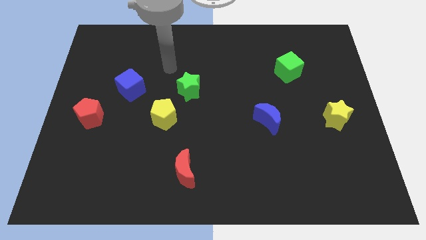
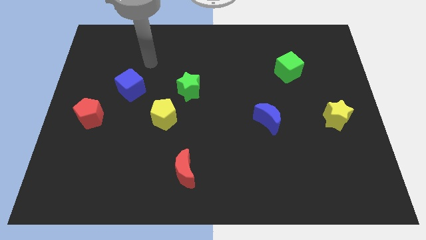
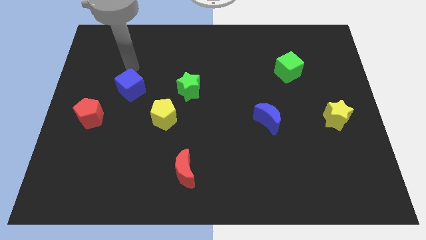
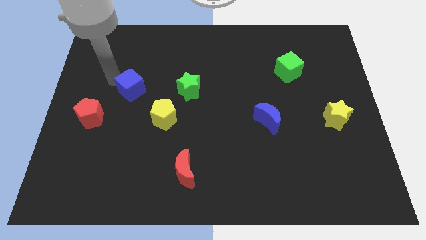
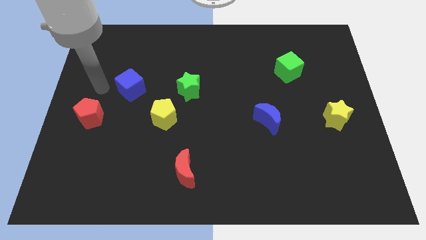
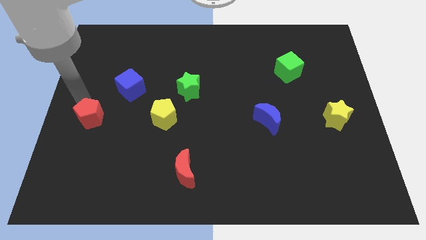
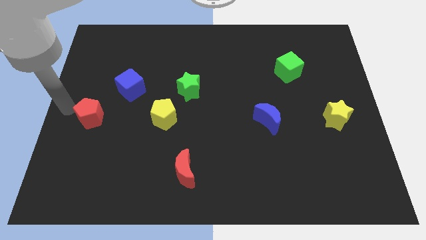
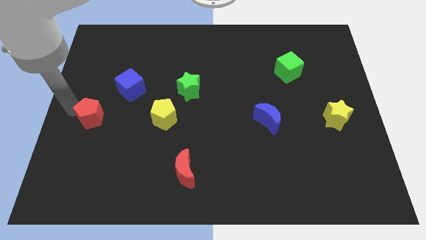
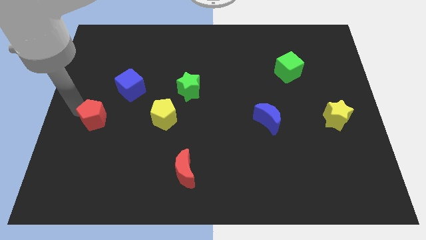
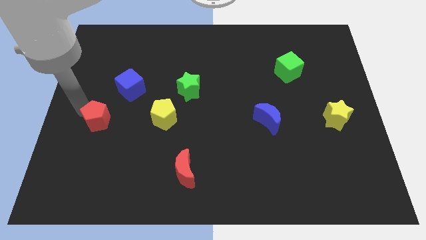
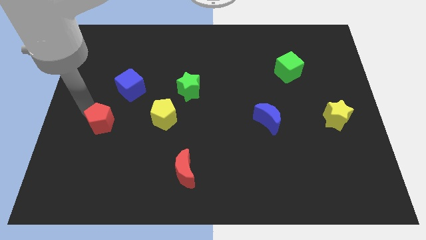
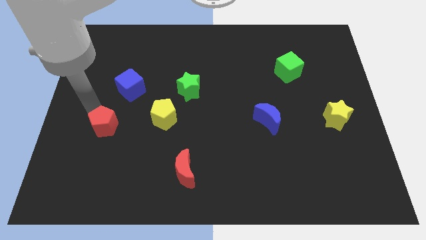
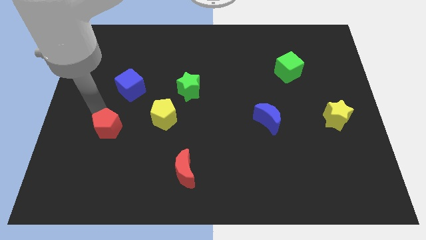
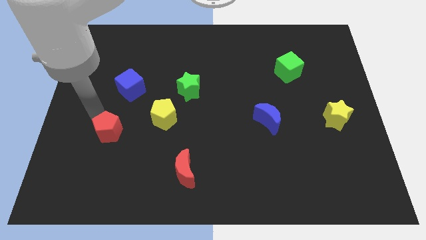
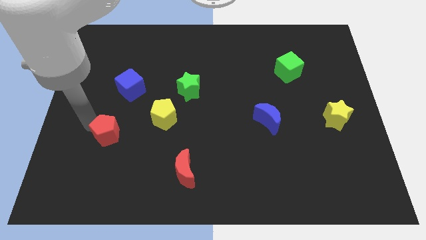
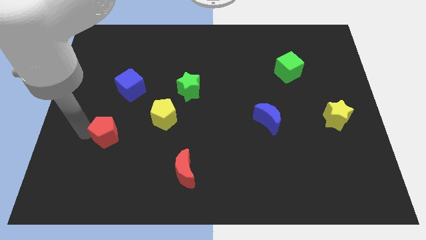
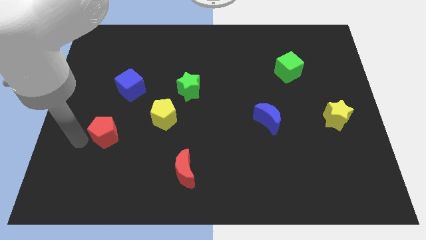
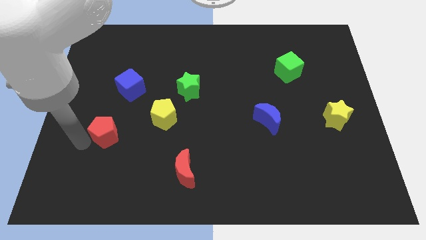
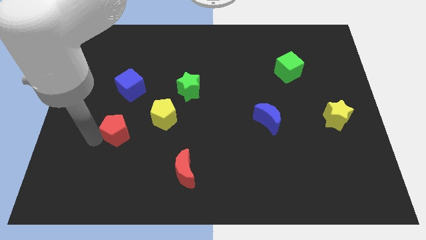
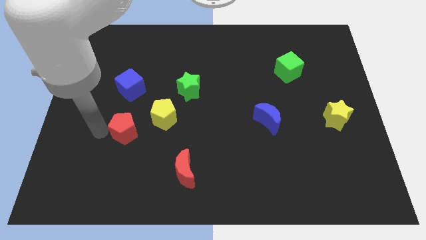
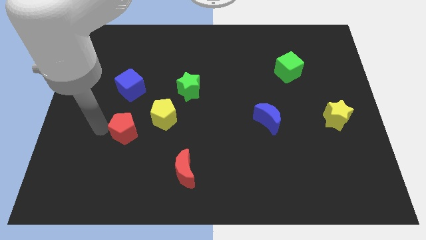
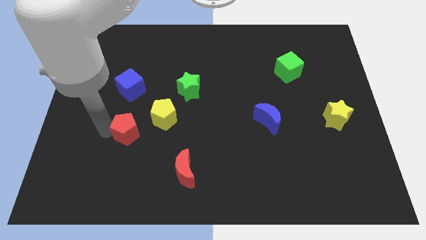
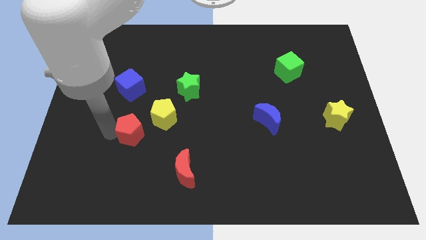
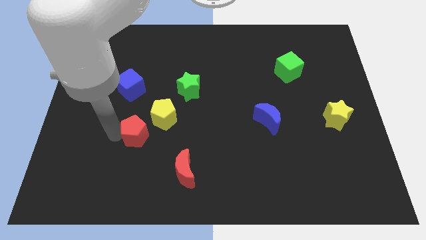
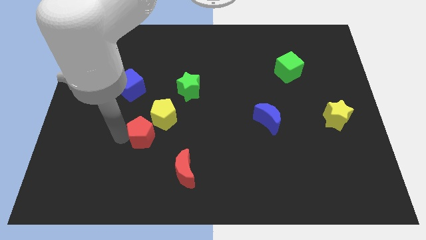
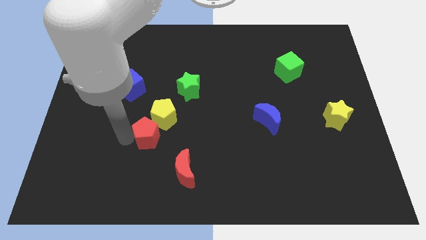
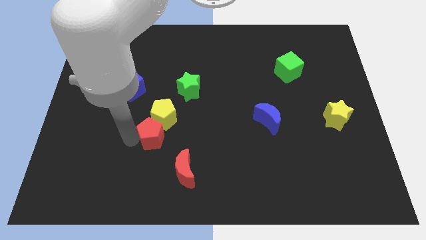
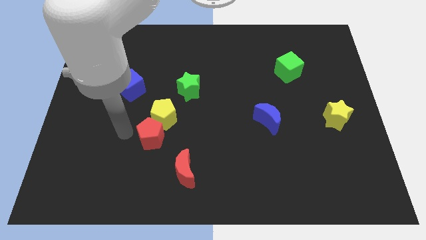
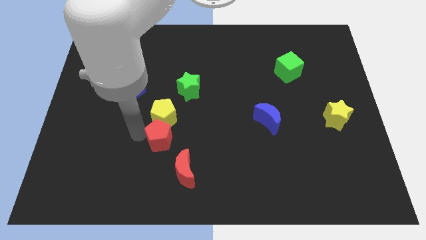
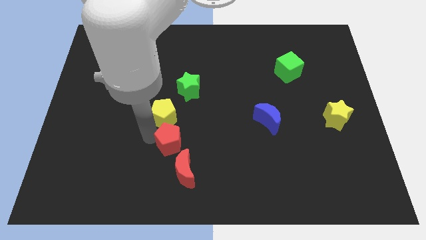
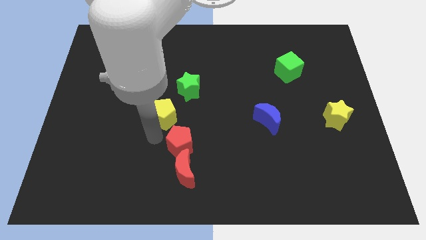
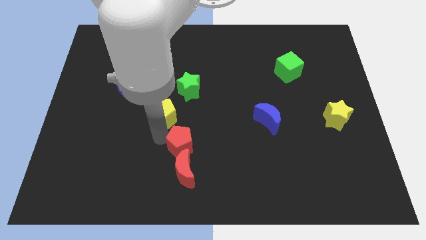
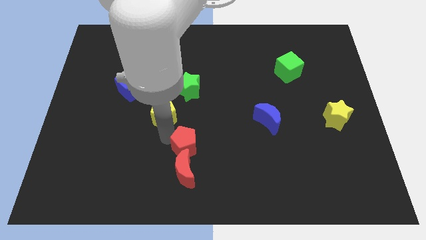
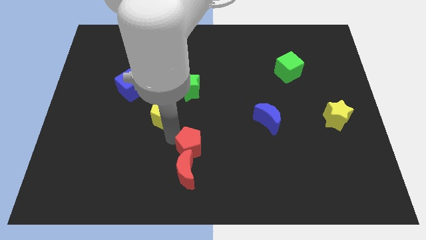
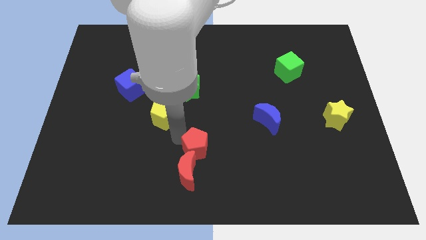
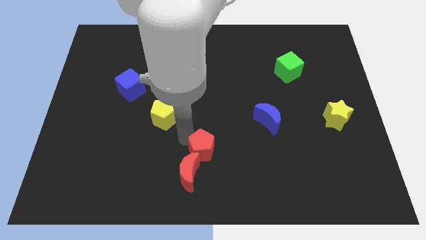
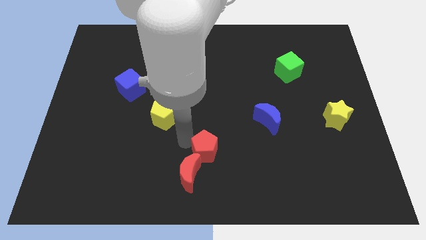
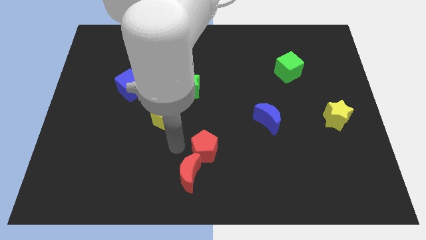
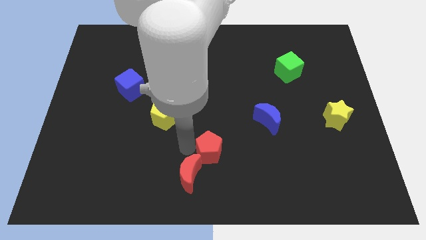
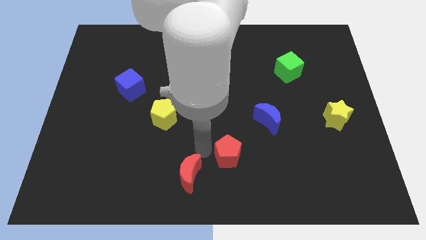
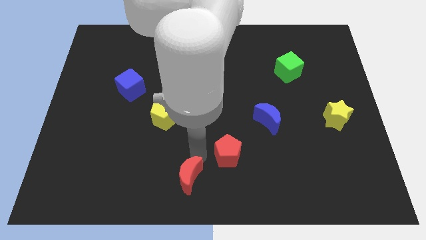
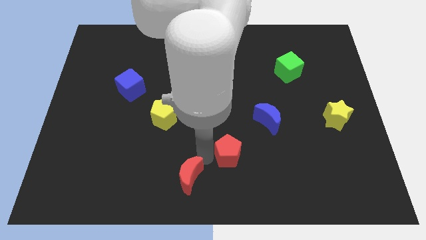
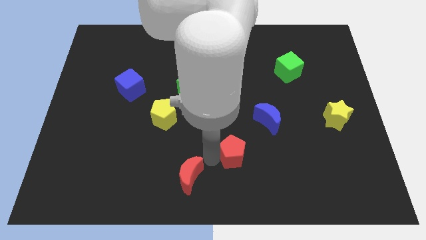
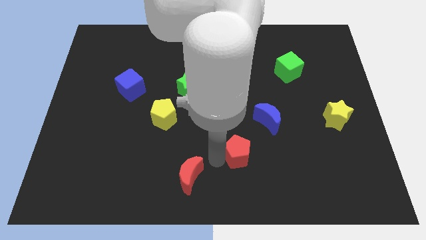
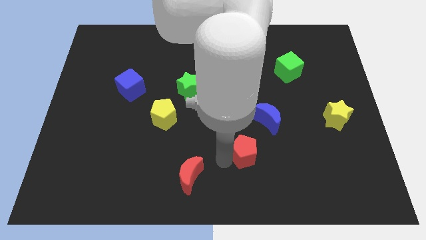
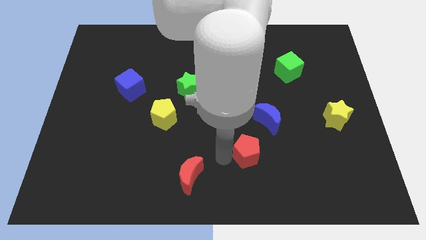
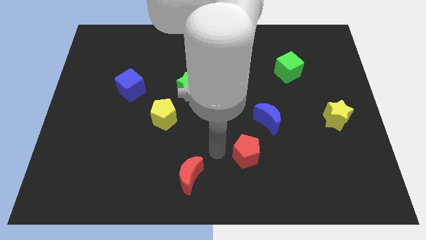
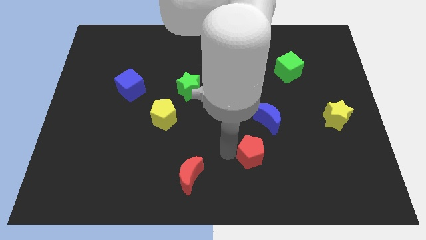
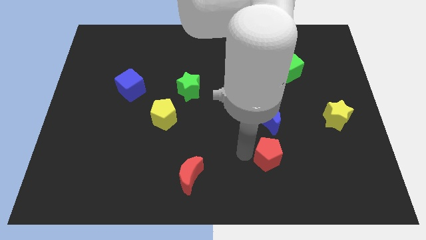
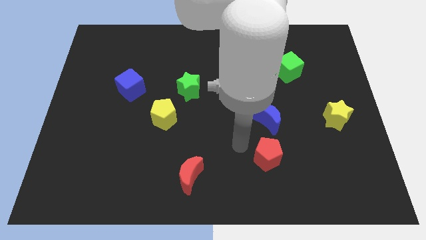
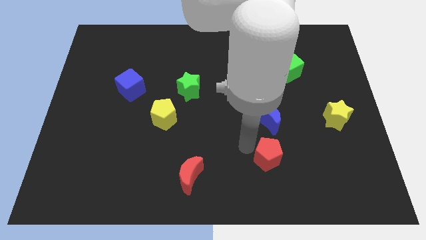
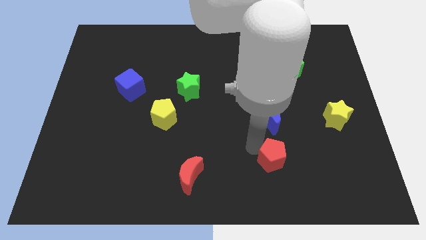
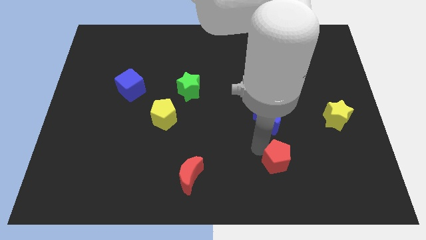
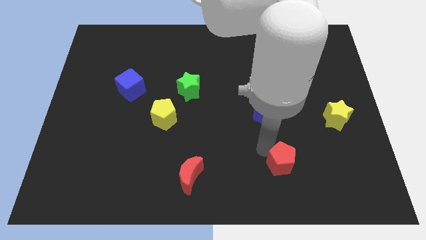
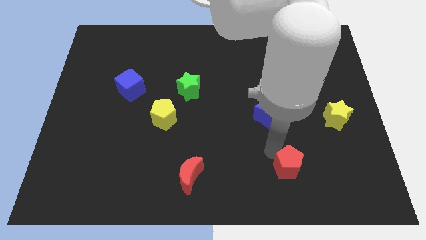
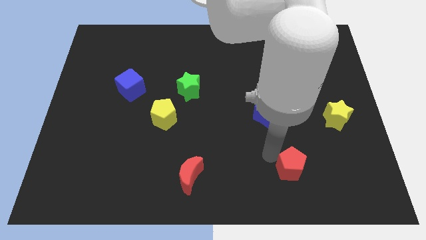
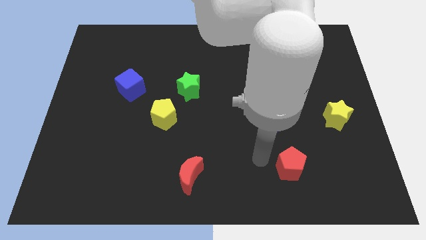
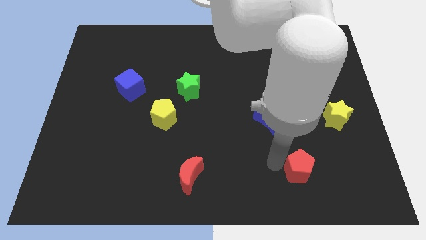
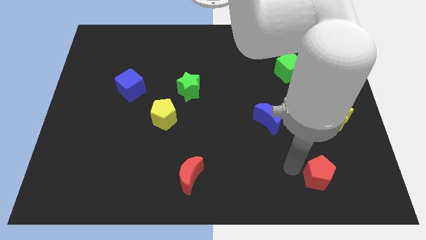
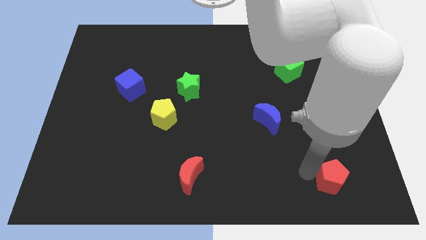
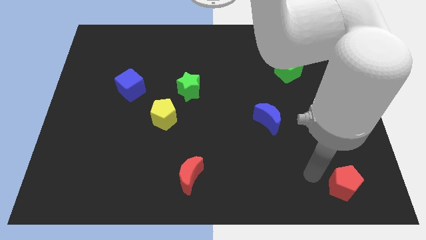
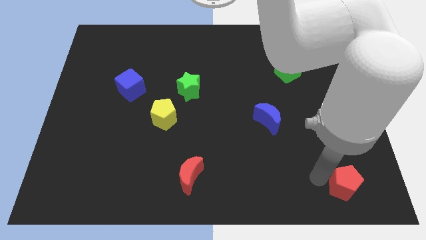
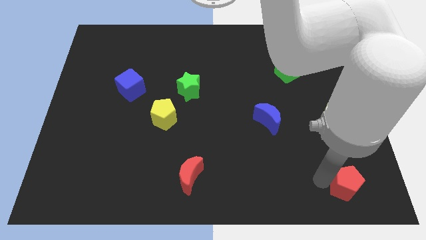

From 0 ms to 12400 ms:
slide the red pentagon to the bottom right corner
